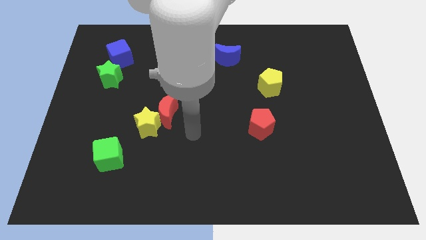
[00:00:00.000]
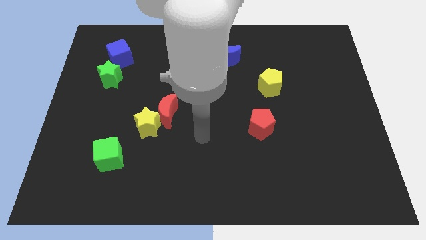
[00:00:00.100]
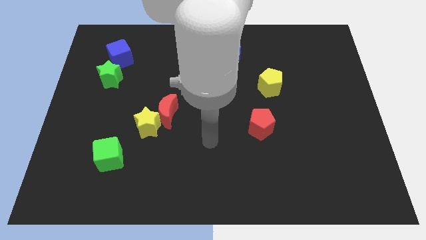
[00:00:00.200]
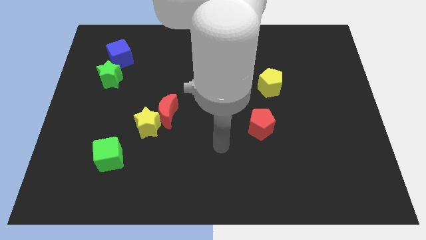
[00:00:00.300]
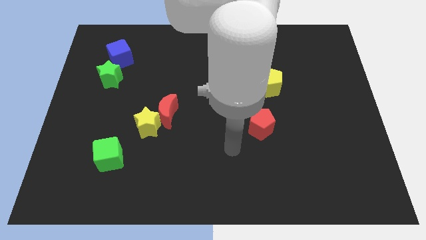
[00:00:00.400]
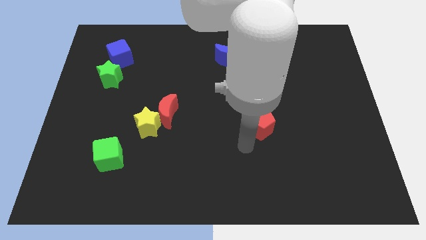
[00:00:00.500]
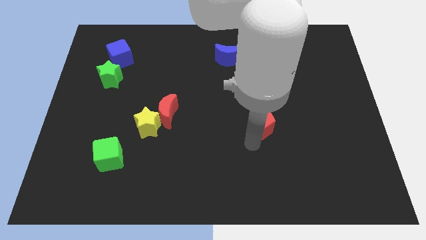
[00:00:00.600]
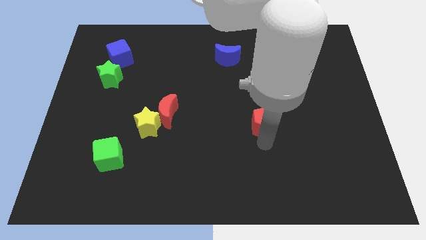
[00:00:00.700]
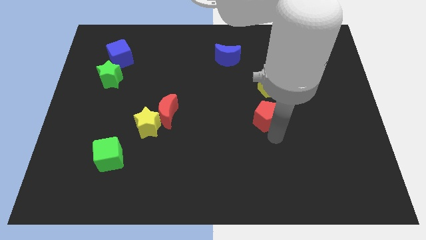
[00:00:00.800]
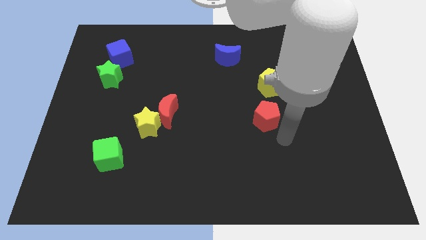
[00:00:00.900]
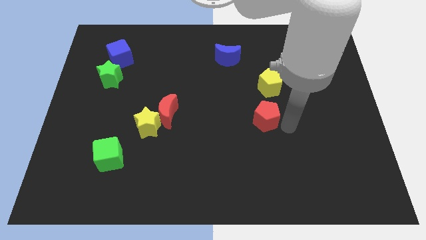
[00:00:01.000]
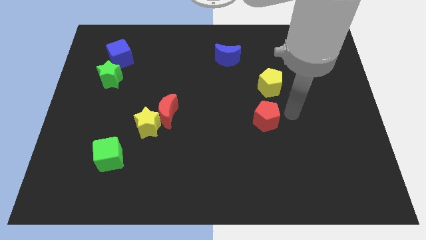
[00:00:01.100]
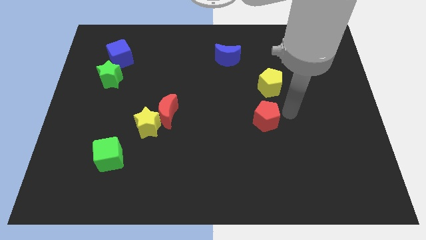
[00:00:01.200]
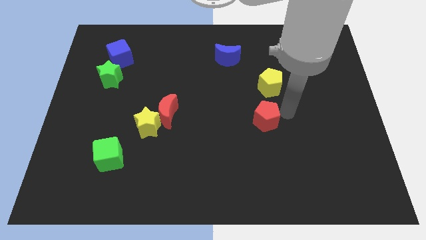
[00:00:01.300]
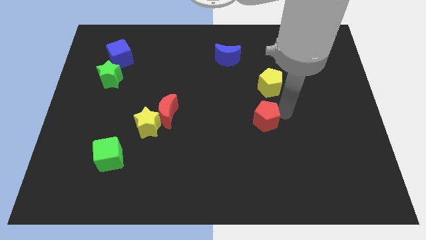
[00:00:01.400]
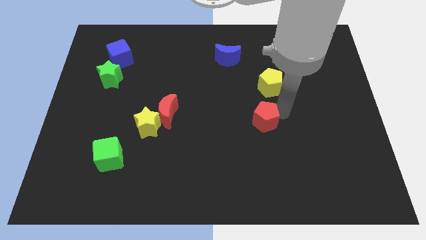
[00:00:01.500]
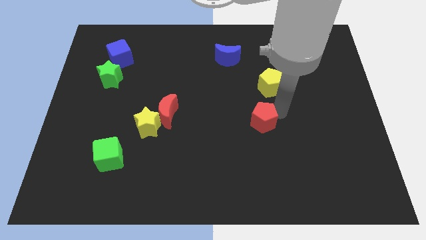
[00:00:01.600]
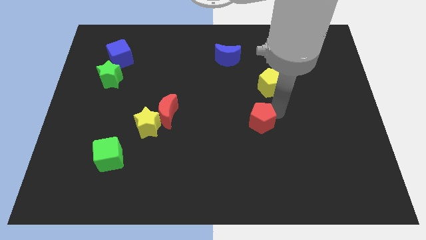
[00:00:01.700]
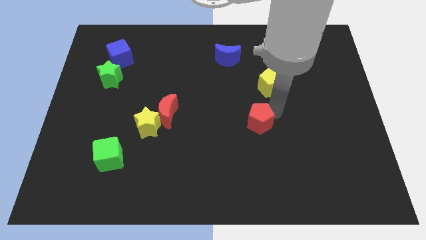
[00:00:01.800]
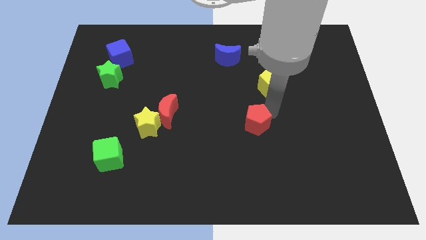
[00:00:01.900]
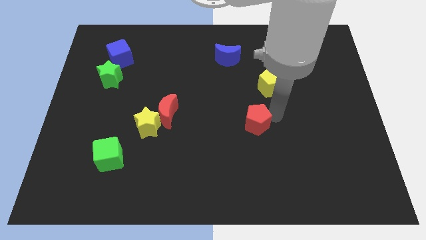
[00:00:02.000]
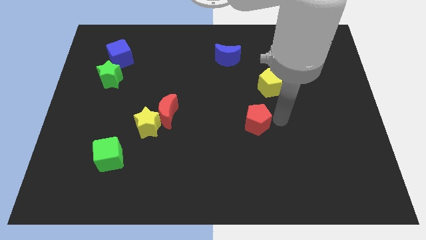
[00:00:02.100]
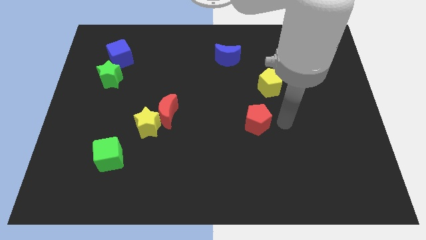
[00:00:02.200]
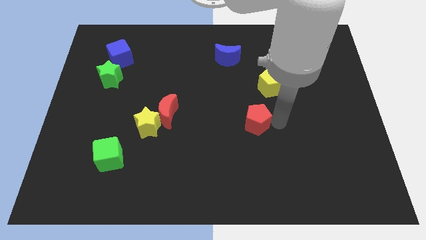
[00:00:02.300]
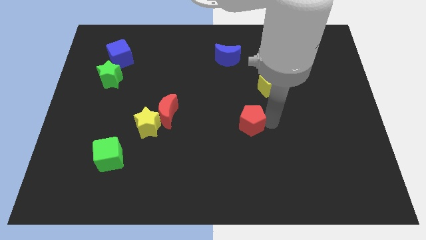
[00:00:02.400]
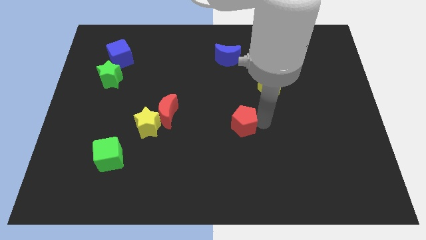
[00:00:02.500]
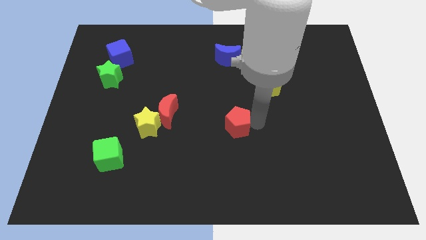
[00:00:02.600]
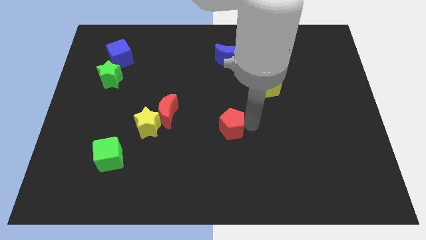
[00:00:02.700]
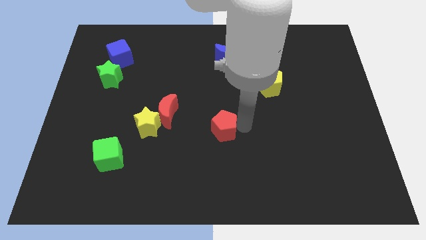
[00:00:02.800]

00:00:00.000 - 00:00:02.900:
slightly push the red pentagon to the left

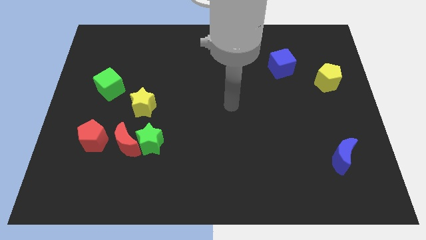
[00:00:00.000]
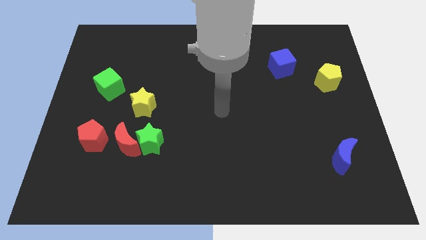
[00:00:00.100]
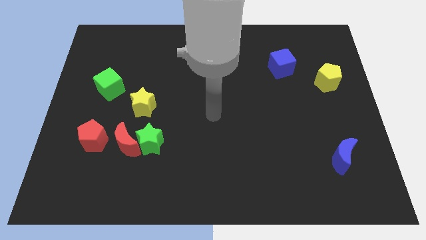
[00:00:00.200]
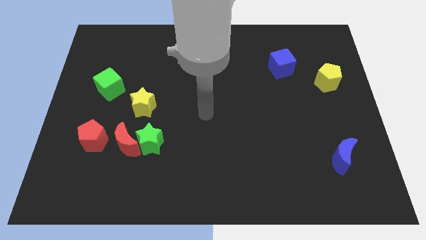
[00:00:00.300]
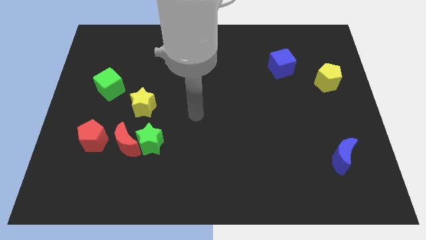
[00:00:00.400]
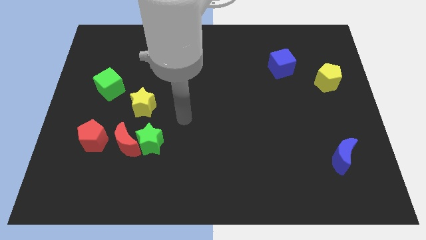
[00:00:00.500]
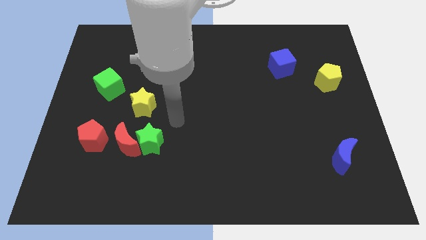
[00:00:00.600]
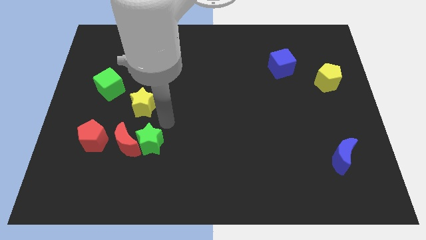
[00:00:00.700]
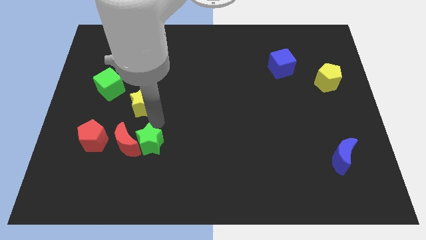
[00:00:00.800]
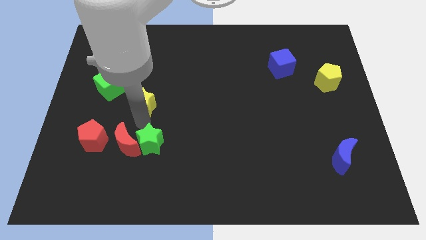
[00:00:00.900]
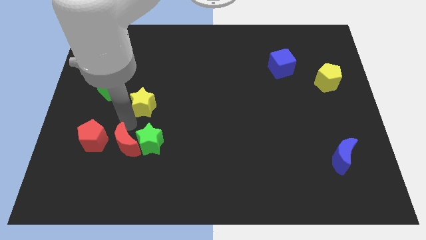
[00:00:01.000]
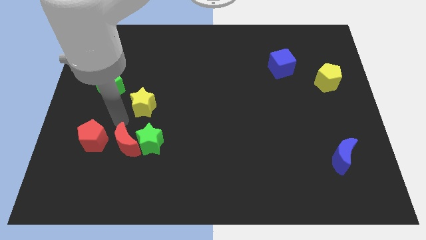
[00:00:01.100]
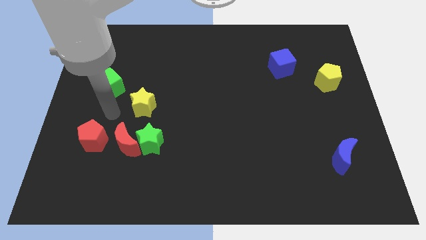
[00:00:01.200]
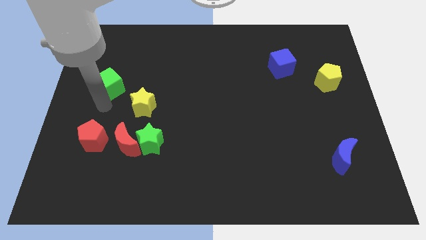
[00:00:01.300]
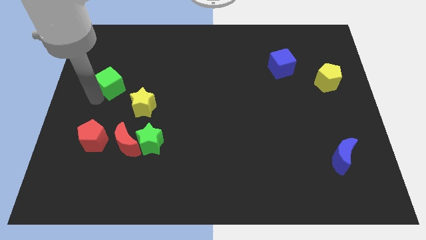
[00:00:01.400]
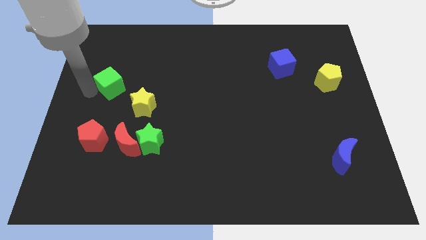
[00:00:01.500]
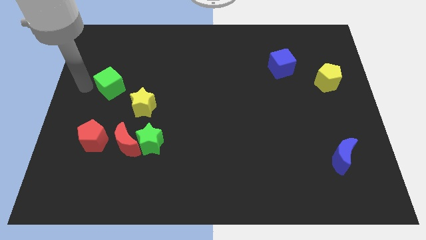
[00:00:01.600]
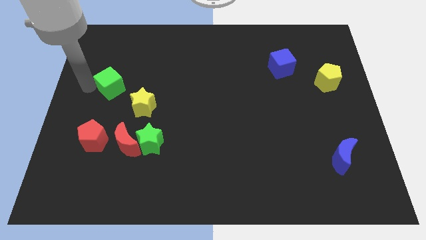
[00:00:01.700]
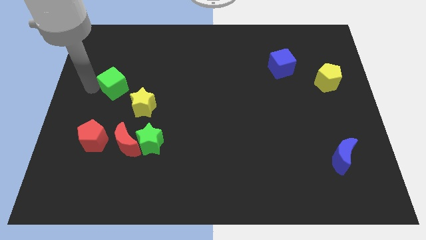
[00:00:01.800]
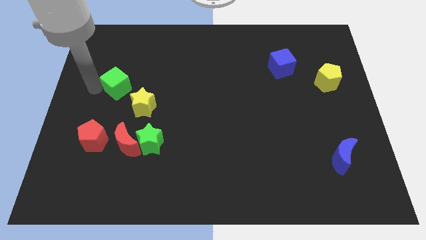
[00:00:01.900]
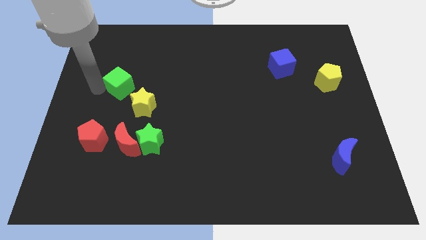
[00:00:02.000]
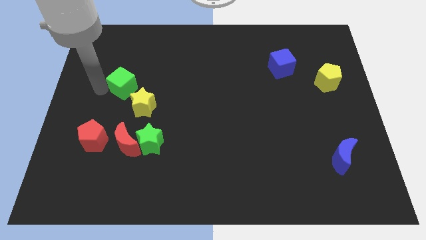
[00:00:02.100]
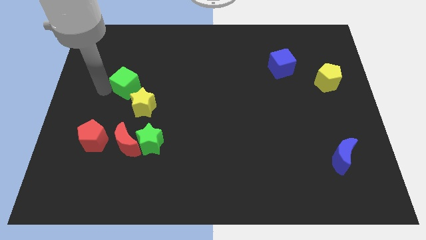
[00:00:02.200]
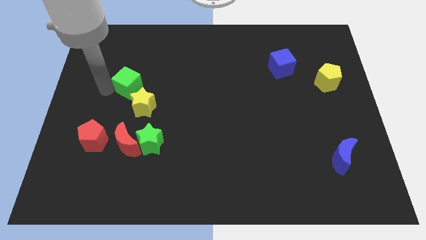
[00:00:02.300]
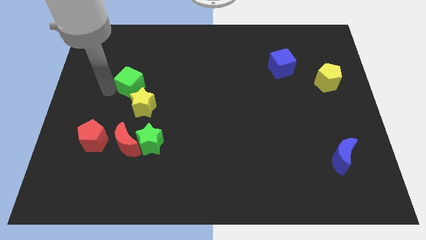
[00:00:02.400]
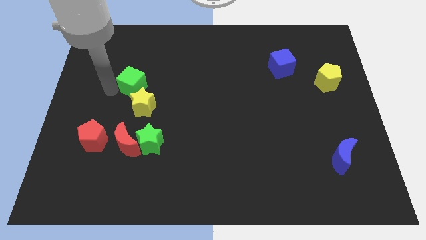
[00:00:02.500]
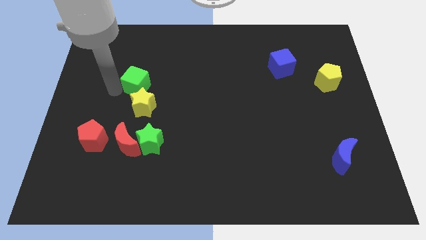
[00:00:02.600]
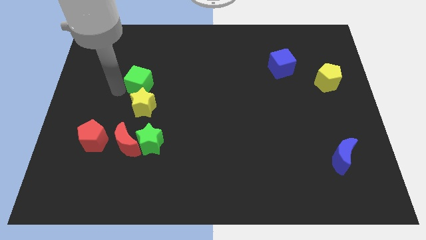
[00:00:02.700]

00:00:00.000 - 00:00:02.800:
move the green cube right a little bit

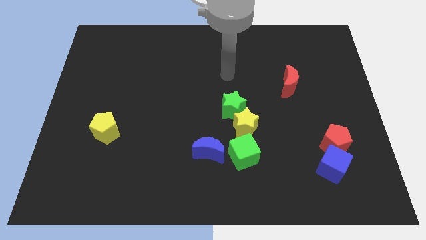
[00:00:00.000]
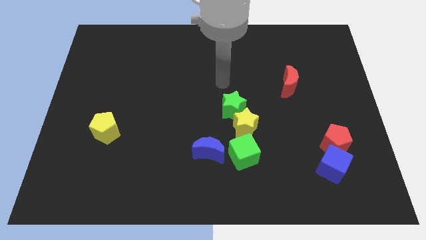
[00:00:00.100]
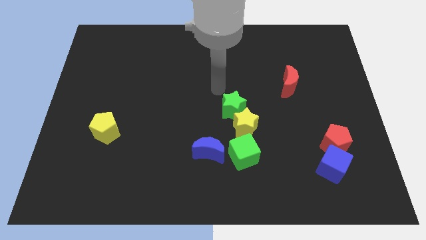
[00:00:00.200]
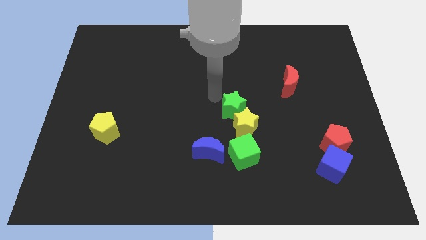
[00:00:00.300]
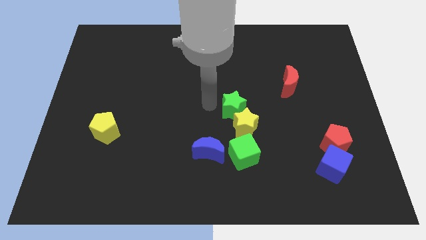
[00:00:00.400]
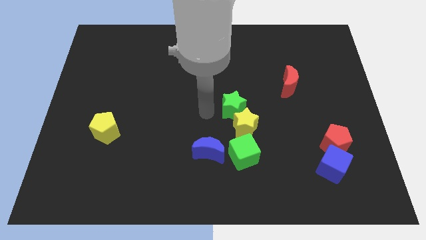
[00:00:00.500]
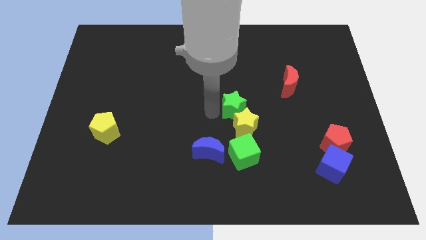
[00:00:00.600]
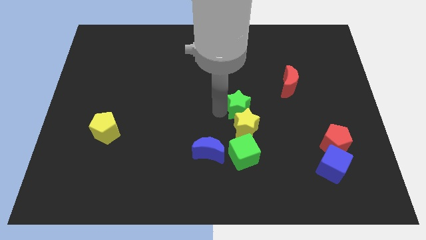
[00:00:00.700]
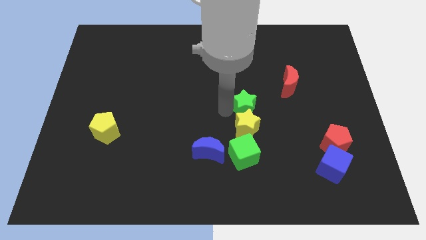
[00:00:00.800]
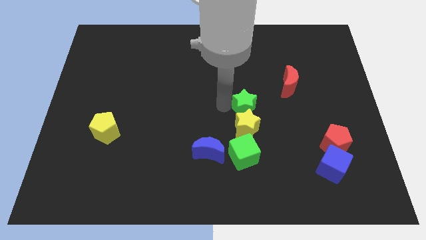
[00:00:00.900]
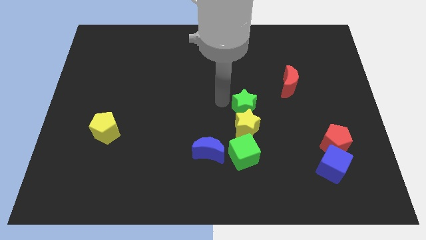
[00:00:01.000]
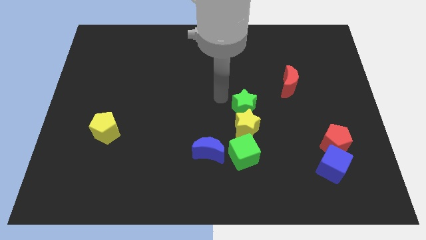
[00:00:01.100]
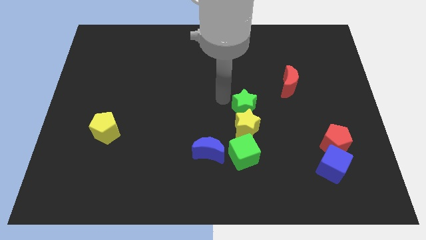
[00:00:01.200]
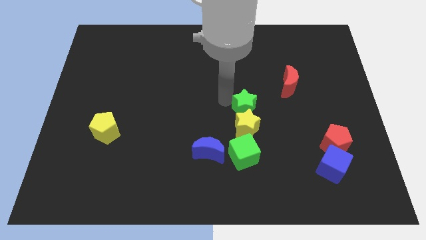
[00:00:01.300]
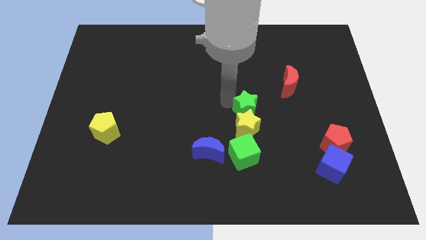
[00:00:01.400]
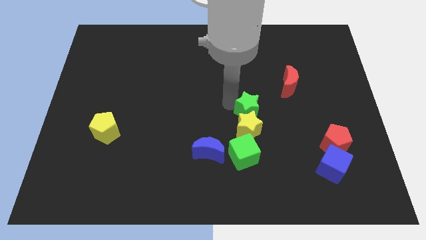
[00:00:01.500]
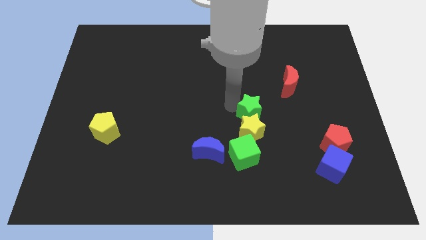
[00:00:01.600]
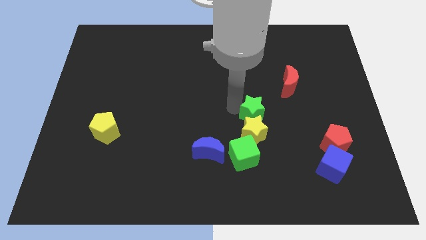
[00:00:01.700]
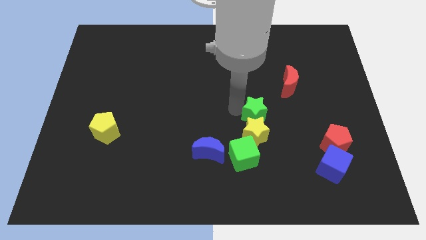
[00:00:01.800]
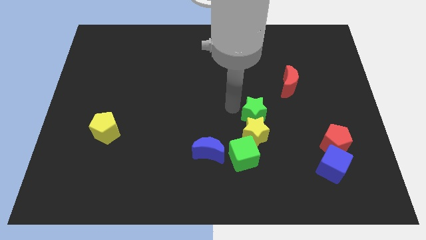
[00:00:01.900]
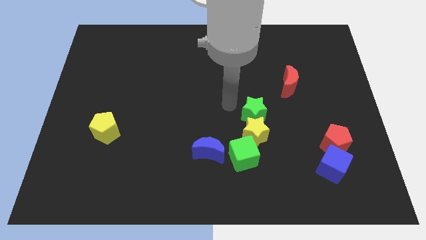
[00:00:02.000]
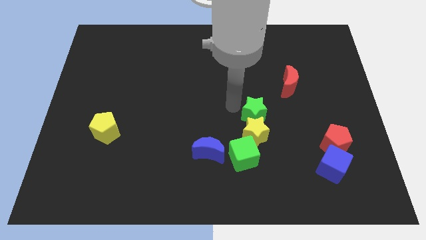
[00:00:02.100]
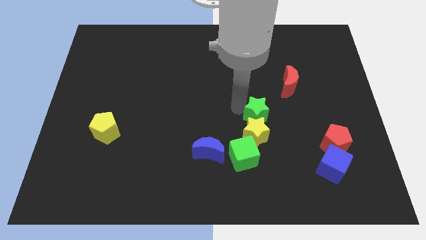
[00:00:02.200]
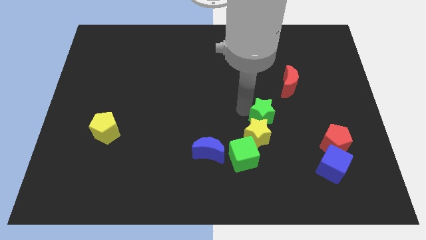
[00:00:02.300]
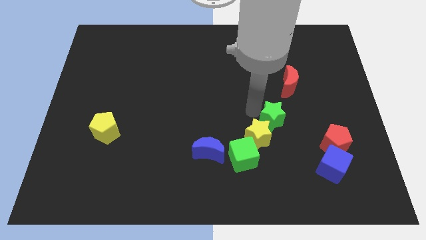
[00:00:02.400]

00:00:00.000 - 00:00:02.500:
slightly move the green star down and then right

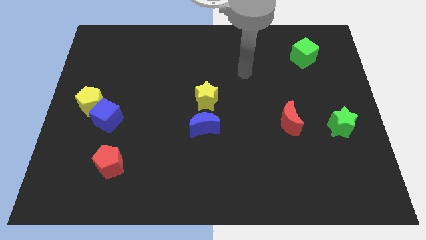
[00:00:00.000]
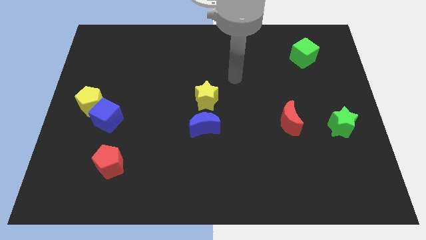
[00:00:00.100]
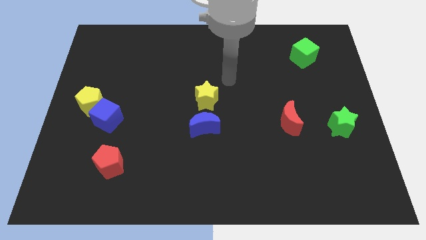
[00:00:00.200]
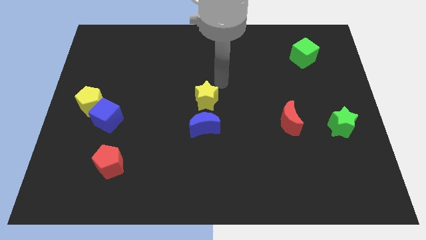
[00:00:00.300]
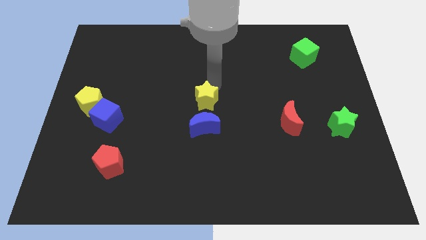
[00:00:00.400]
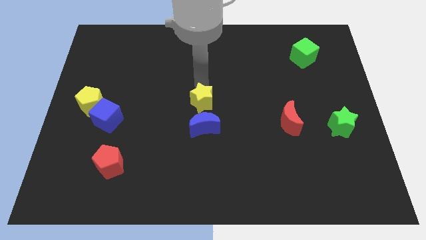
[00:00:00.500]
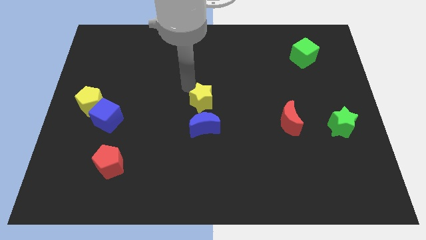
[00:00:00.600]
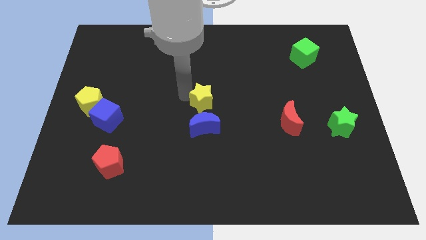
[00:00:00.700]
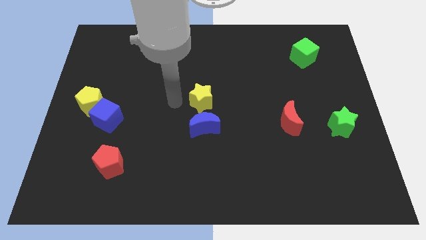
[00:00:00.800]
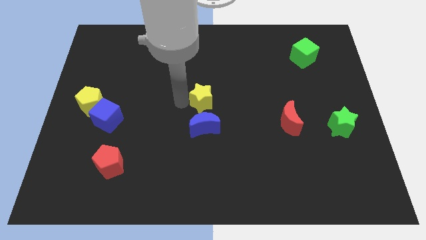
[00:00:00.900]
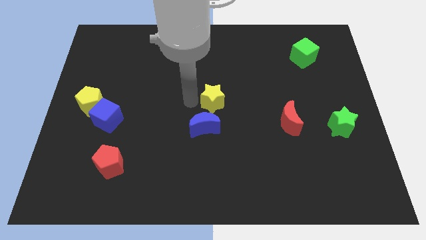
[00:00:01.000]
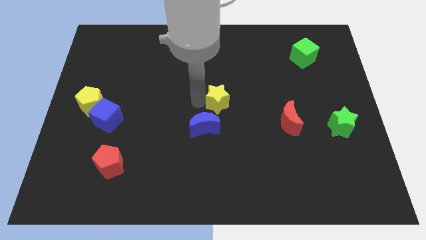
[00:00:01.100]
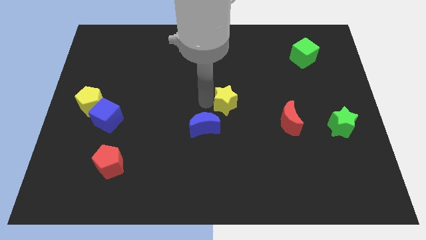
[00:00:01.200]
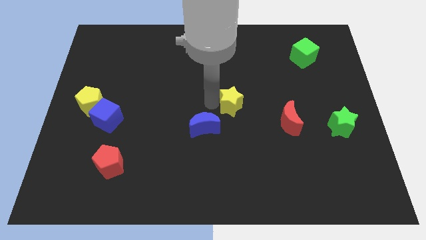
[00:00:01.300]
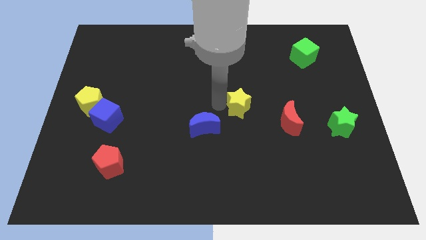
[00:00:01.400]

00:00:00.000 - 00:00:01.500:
move the yellow star slightly to the right
